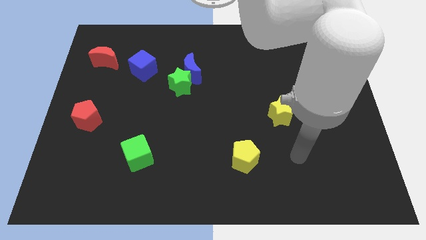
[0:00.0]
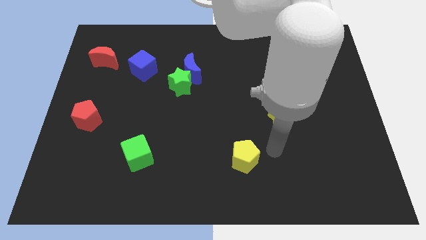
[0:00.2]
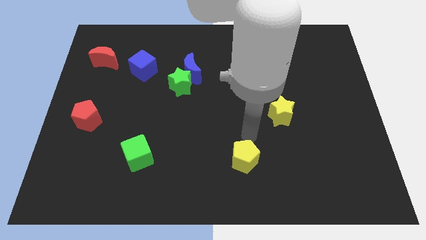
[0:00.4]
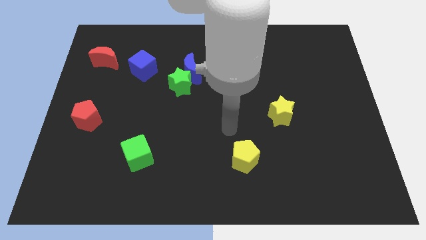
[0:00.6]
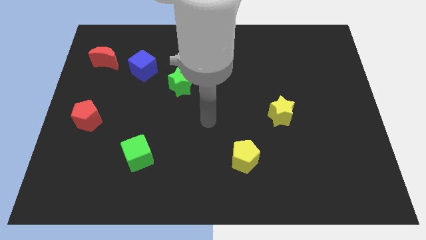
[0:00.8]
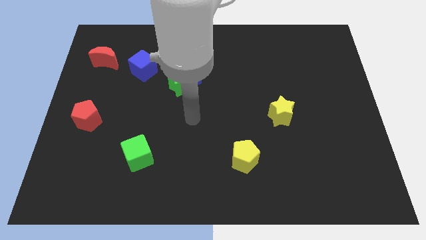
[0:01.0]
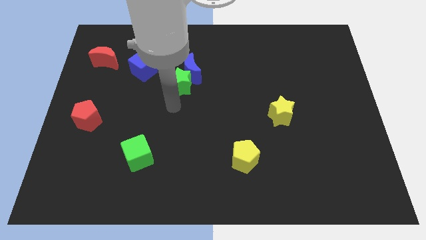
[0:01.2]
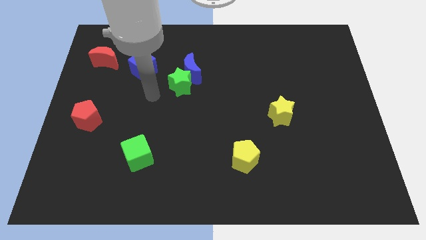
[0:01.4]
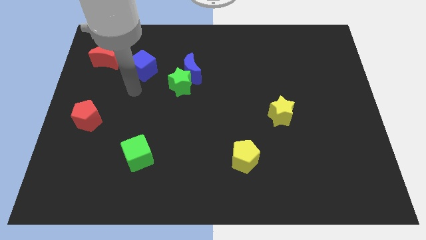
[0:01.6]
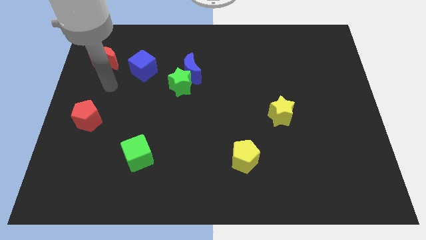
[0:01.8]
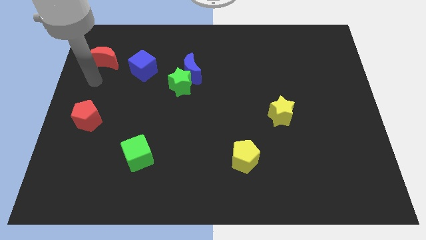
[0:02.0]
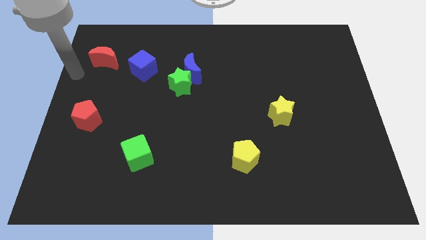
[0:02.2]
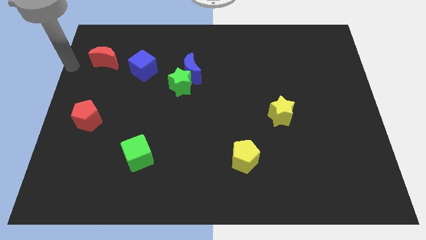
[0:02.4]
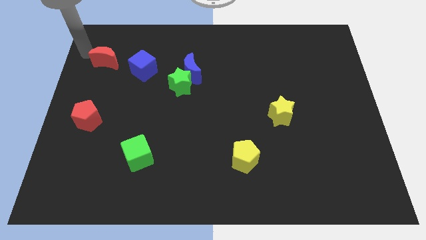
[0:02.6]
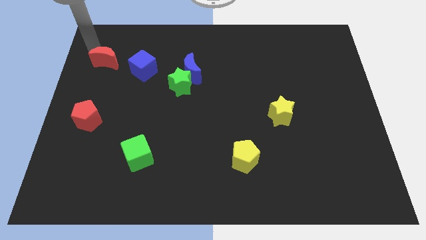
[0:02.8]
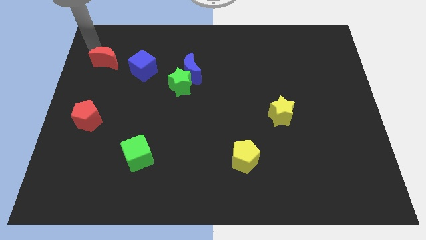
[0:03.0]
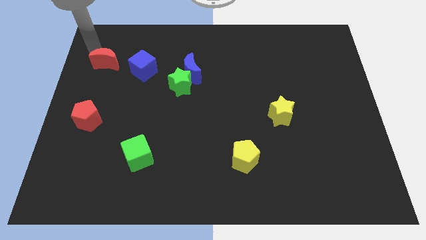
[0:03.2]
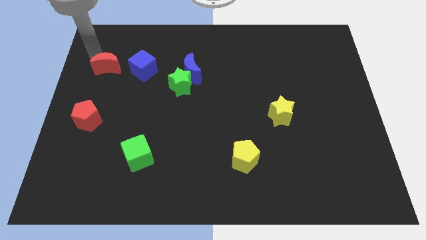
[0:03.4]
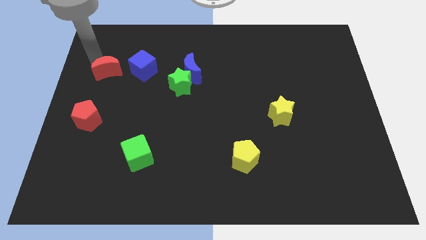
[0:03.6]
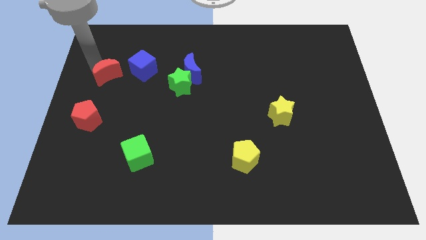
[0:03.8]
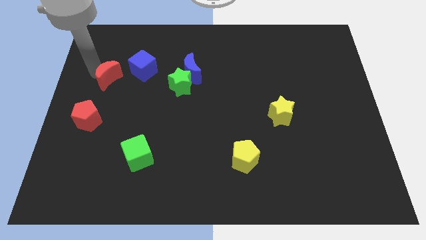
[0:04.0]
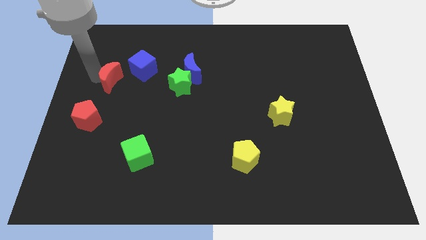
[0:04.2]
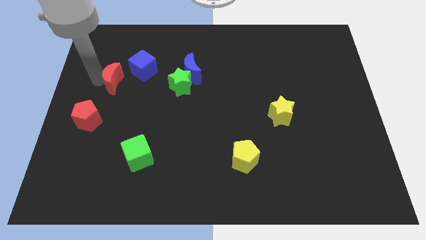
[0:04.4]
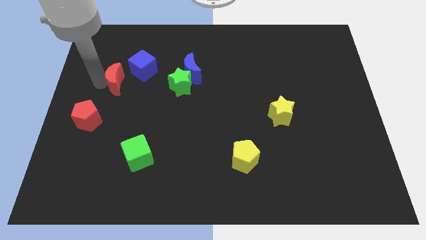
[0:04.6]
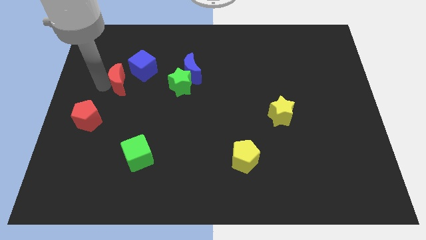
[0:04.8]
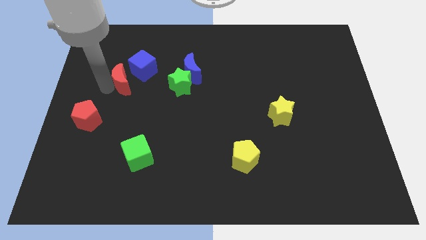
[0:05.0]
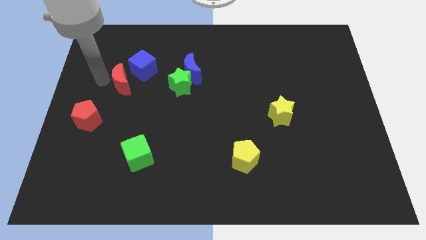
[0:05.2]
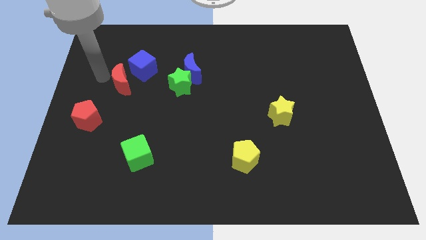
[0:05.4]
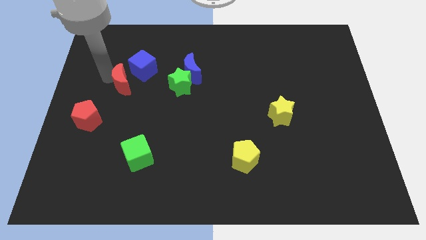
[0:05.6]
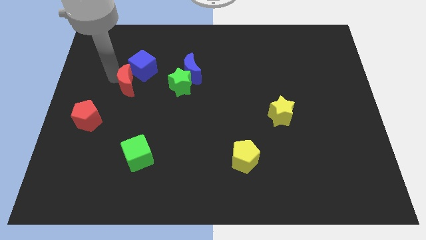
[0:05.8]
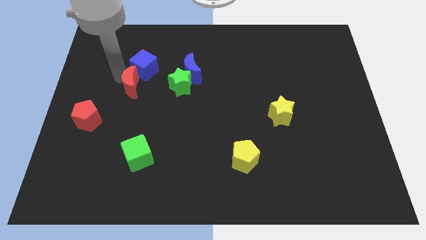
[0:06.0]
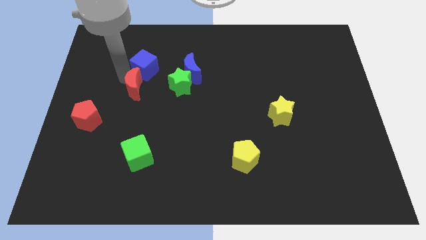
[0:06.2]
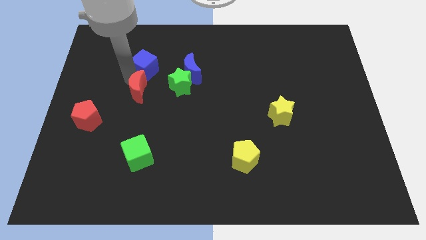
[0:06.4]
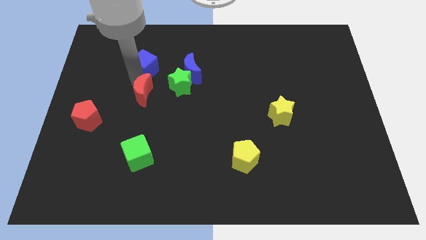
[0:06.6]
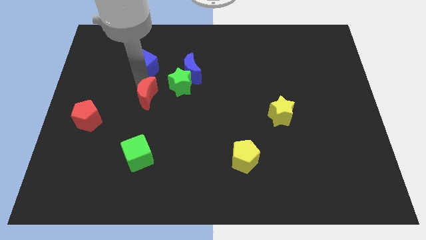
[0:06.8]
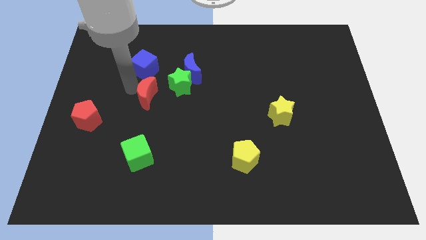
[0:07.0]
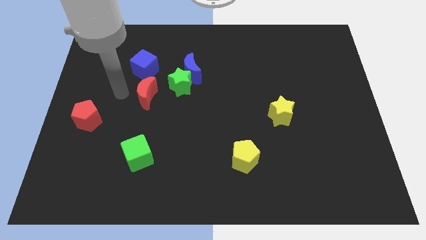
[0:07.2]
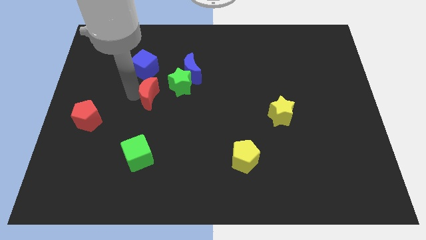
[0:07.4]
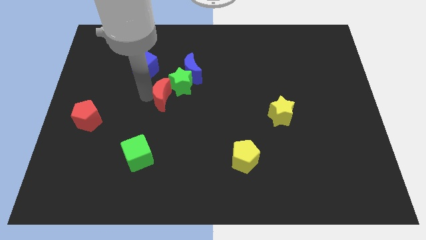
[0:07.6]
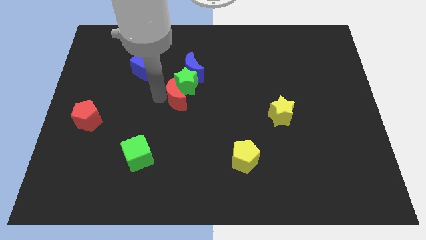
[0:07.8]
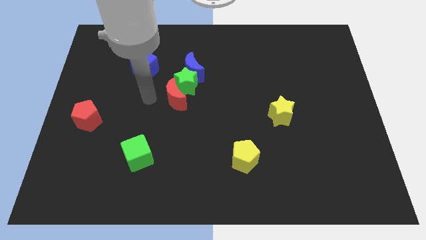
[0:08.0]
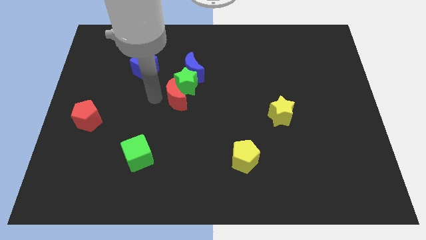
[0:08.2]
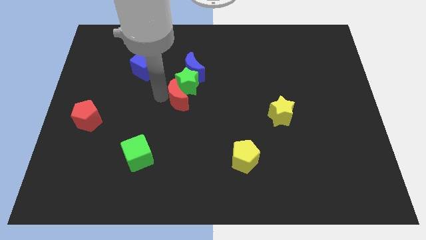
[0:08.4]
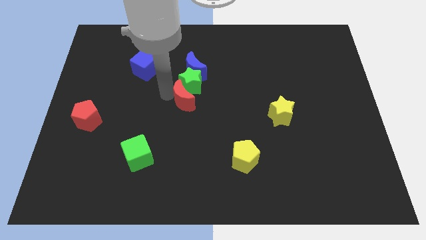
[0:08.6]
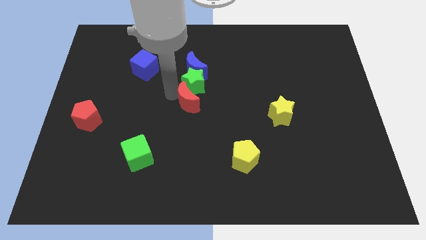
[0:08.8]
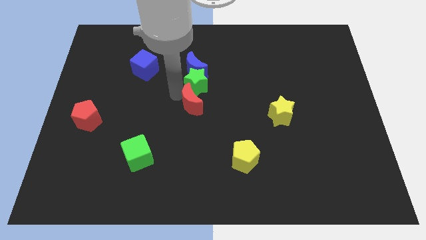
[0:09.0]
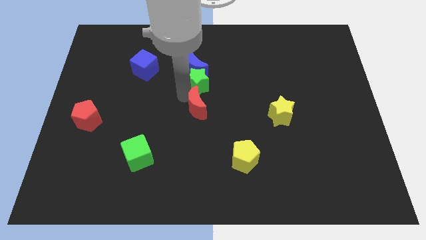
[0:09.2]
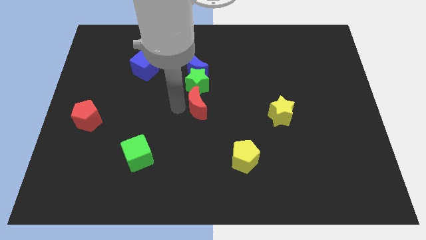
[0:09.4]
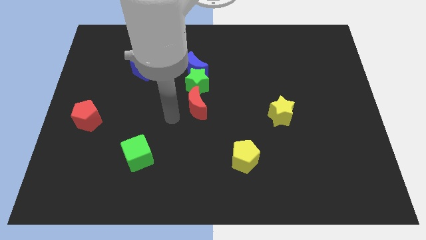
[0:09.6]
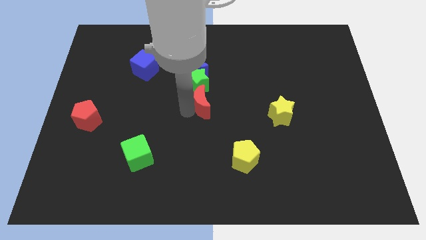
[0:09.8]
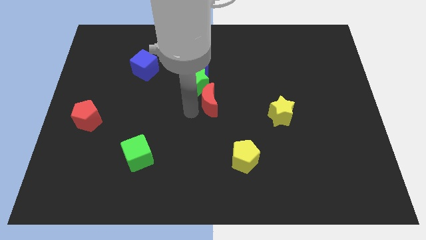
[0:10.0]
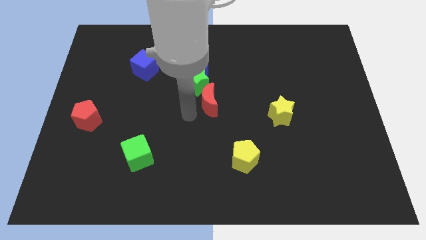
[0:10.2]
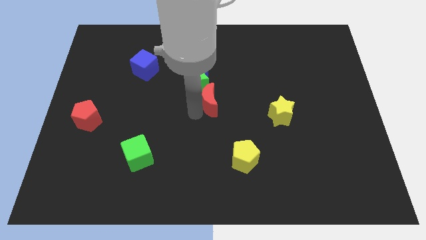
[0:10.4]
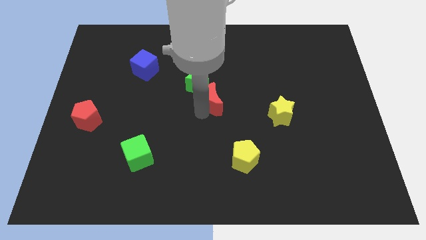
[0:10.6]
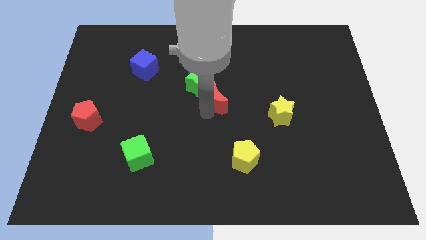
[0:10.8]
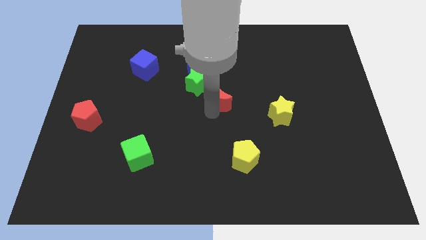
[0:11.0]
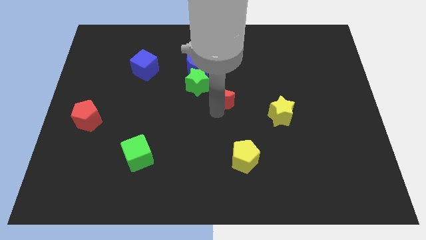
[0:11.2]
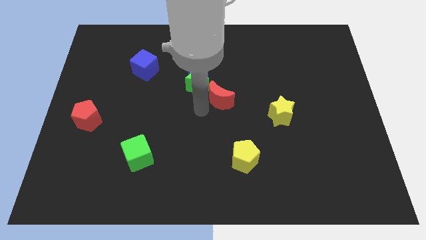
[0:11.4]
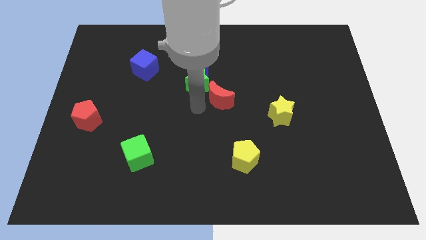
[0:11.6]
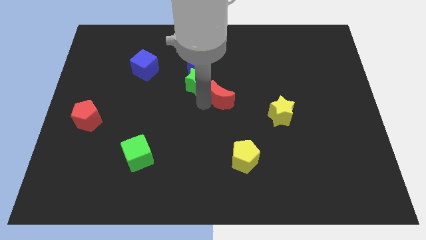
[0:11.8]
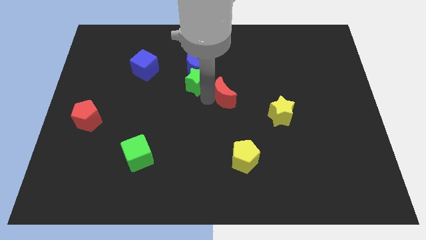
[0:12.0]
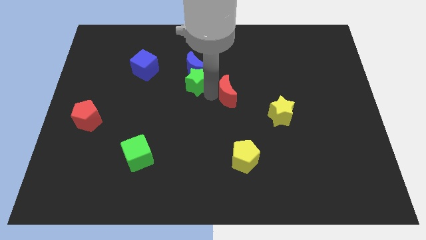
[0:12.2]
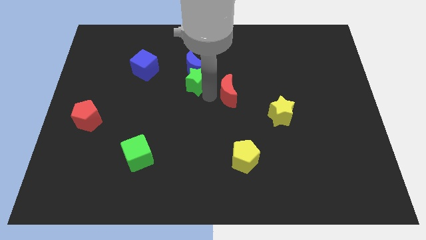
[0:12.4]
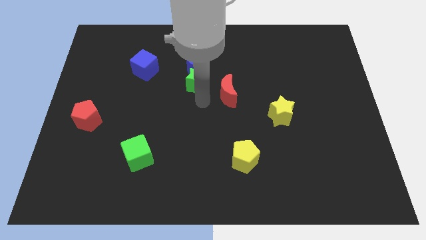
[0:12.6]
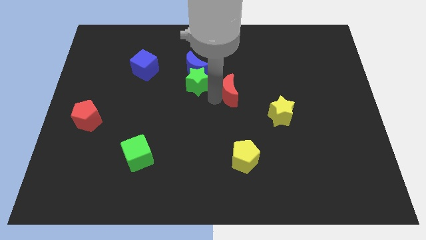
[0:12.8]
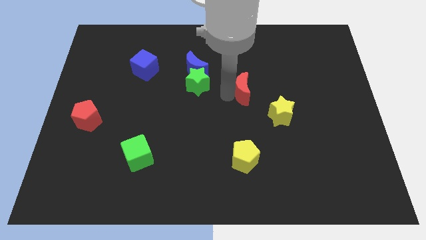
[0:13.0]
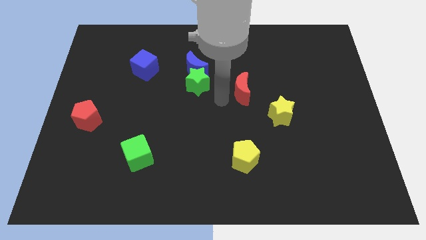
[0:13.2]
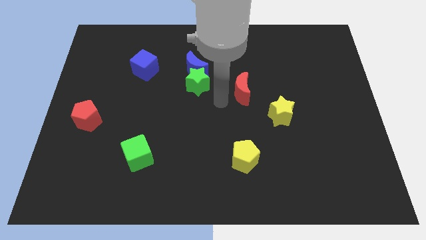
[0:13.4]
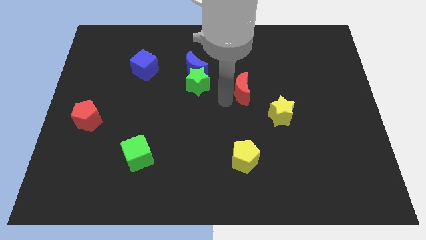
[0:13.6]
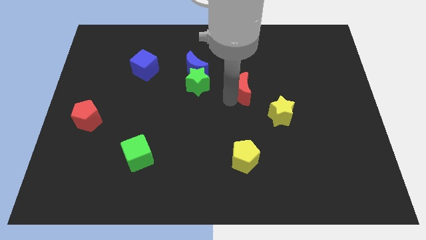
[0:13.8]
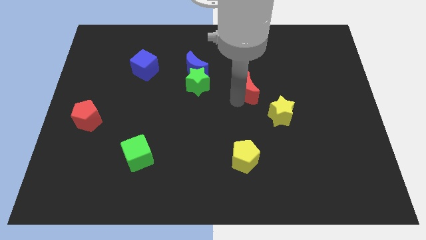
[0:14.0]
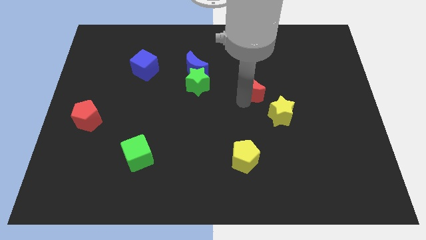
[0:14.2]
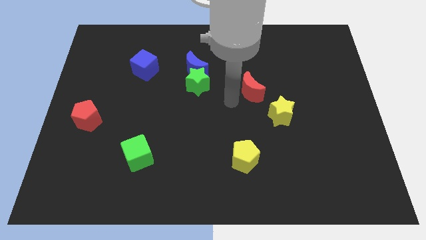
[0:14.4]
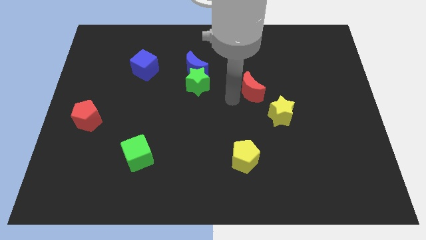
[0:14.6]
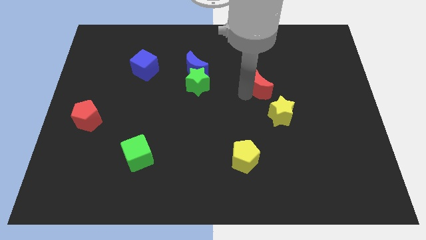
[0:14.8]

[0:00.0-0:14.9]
push the red moon to the top side of the yellow star
